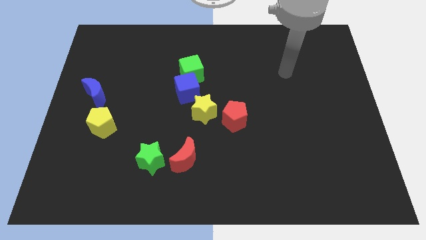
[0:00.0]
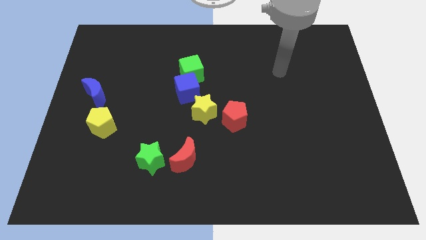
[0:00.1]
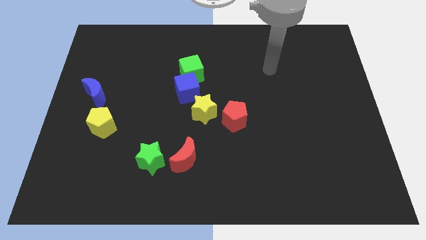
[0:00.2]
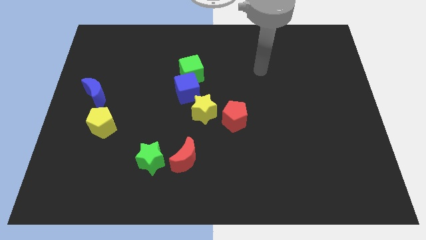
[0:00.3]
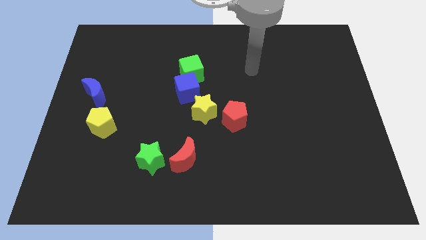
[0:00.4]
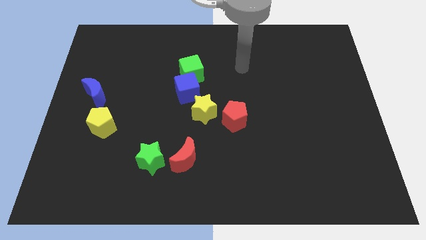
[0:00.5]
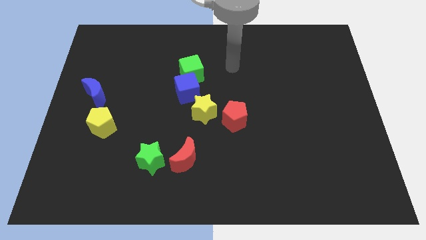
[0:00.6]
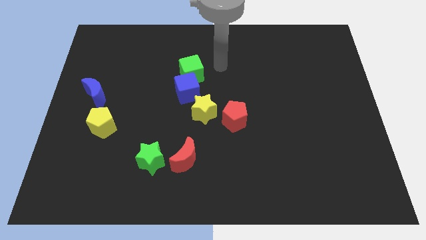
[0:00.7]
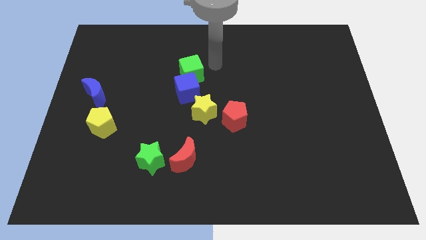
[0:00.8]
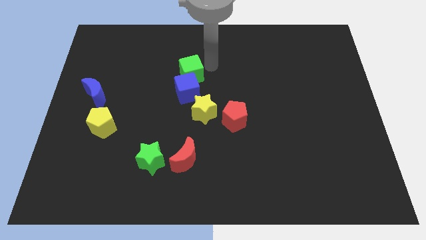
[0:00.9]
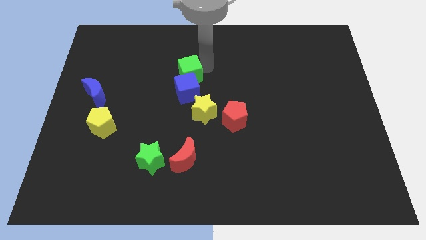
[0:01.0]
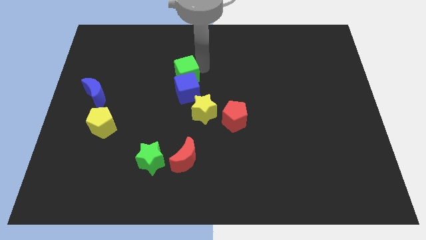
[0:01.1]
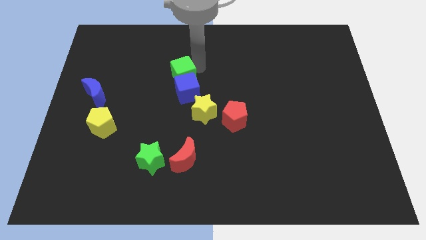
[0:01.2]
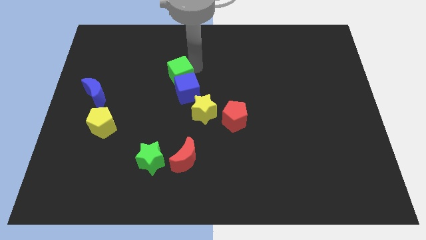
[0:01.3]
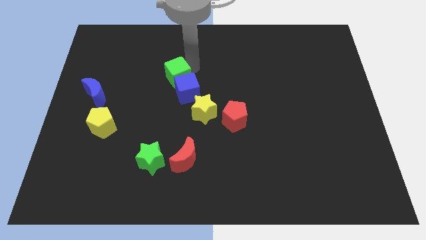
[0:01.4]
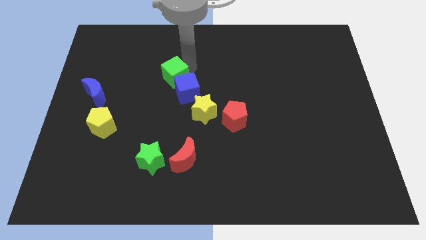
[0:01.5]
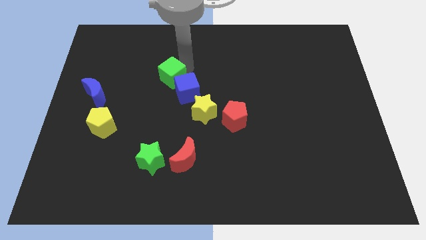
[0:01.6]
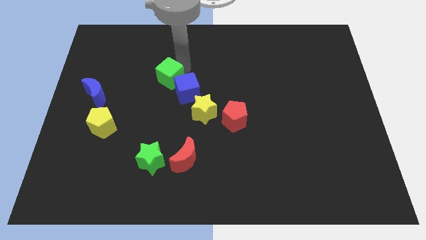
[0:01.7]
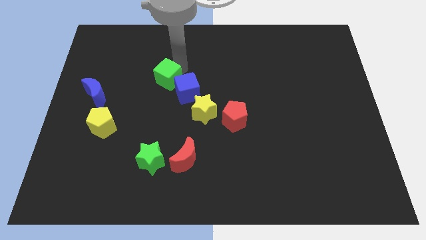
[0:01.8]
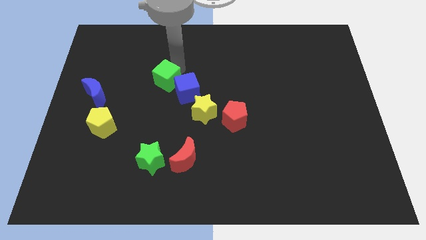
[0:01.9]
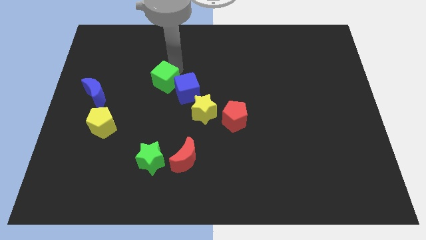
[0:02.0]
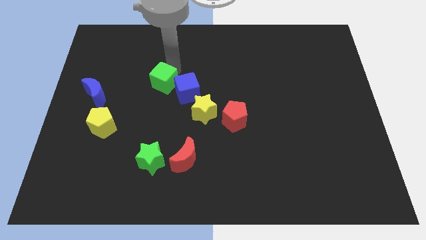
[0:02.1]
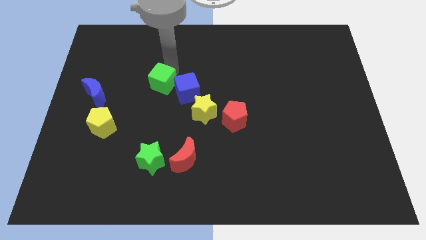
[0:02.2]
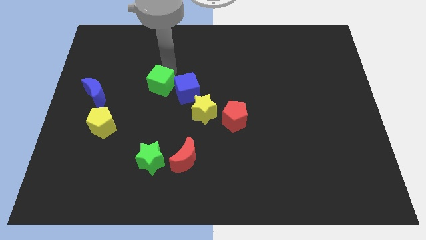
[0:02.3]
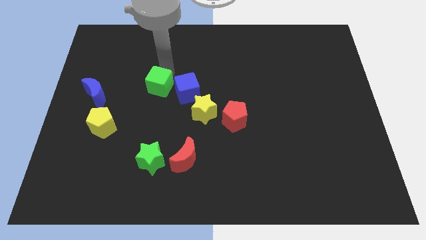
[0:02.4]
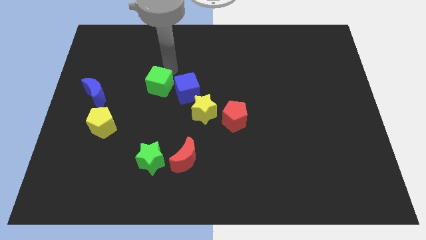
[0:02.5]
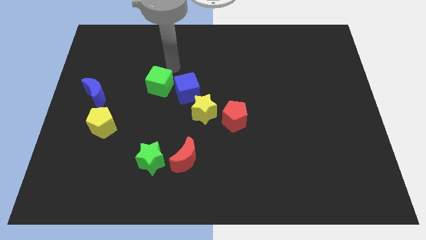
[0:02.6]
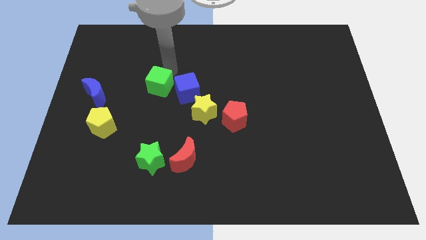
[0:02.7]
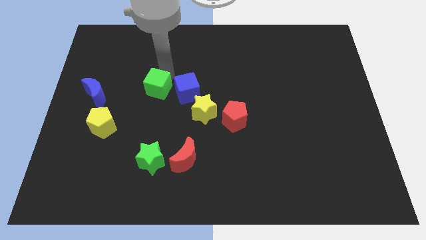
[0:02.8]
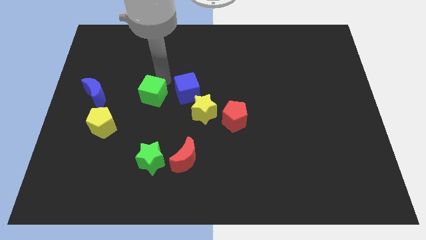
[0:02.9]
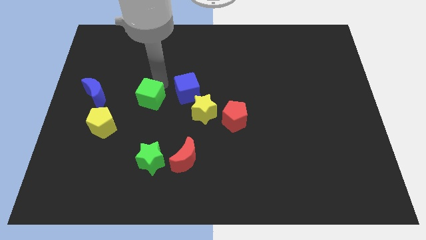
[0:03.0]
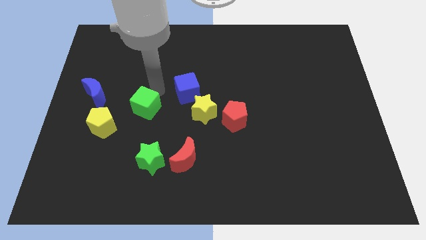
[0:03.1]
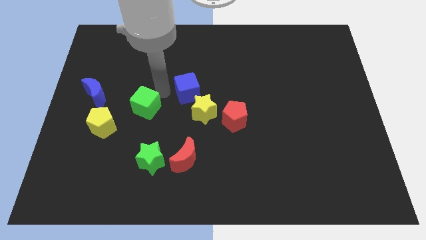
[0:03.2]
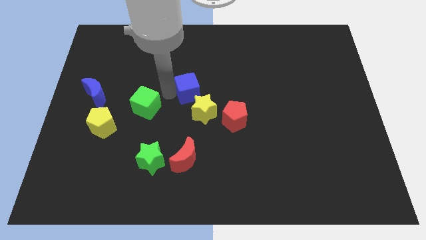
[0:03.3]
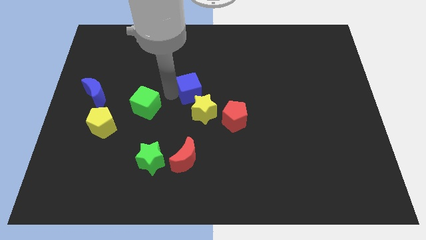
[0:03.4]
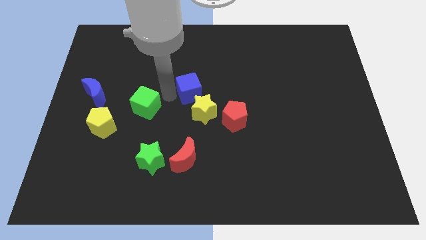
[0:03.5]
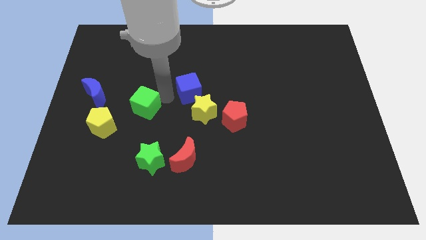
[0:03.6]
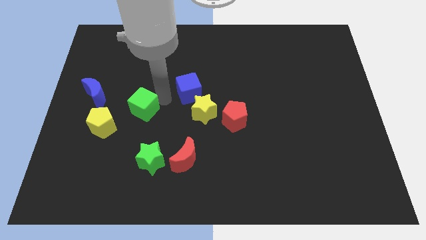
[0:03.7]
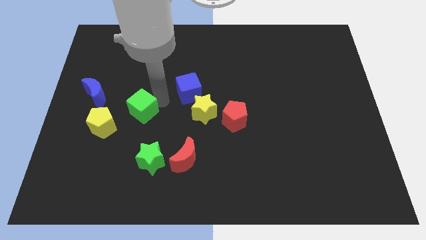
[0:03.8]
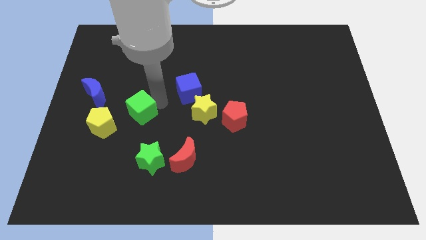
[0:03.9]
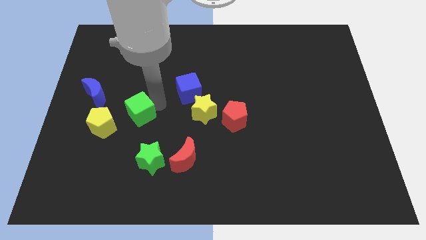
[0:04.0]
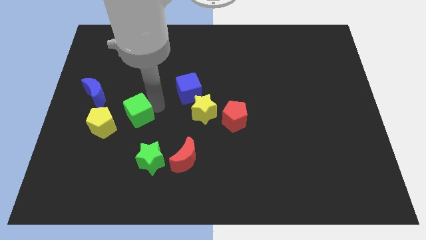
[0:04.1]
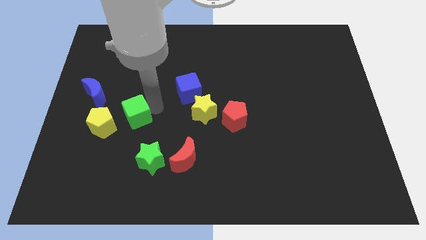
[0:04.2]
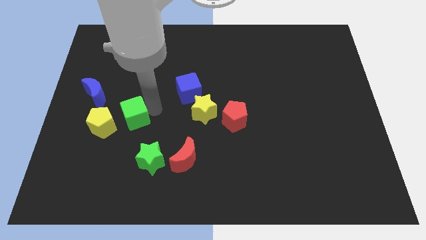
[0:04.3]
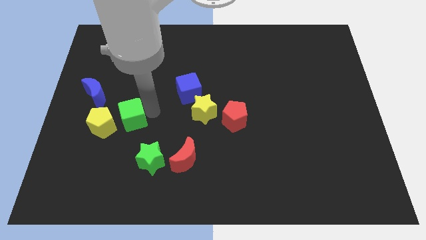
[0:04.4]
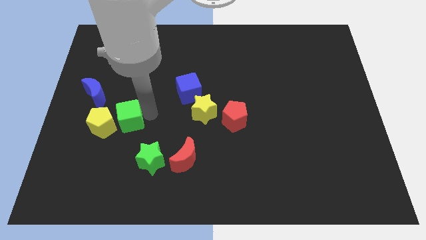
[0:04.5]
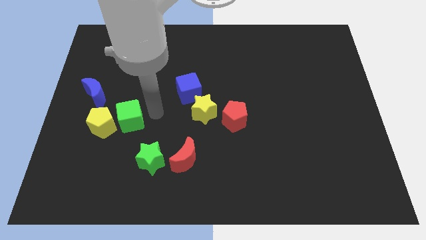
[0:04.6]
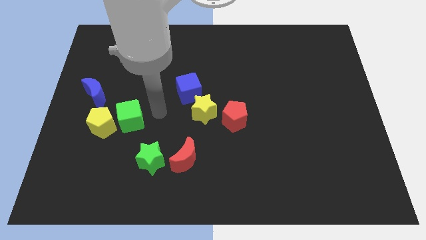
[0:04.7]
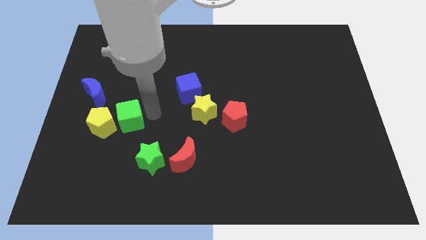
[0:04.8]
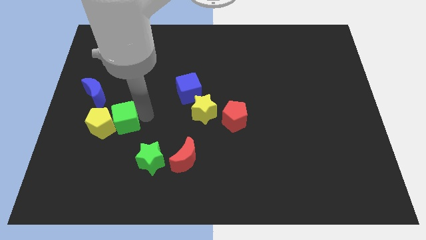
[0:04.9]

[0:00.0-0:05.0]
move the green cube to the yellow pentagon

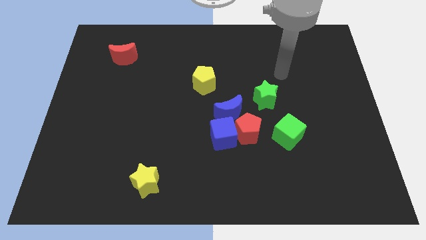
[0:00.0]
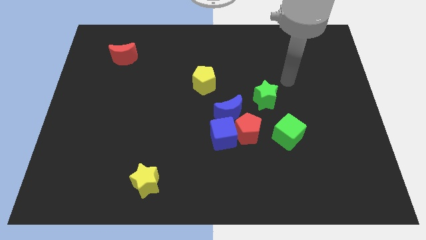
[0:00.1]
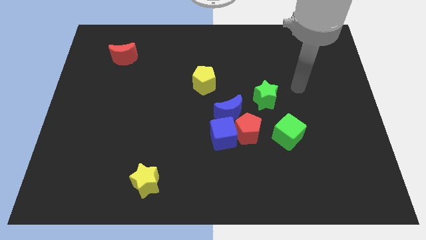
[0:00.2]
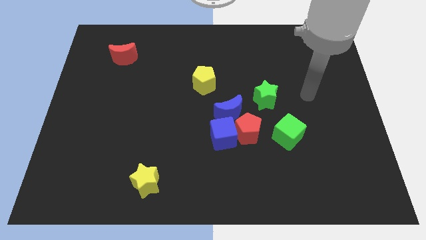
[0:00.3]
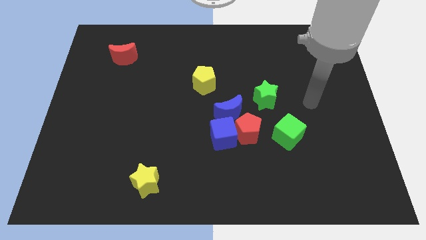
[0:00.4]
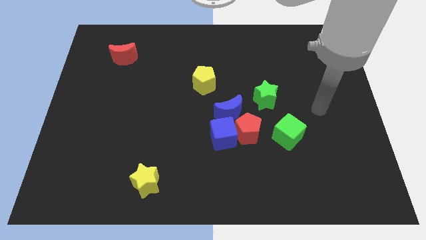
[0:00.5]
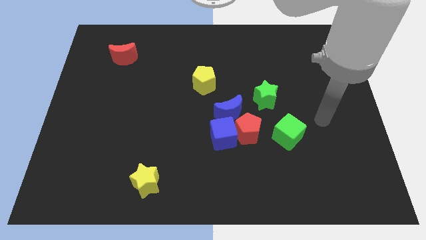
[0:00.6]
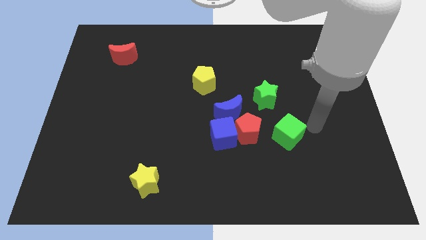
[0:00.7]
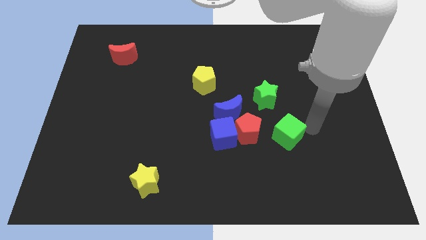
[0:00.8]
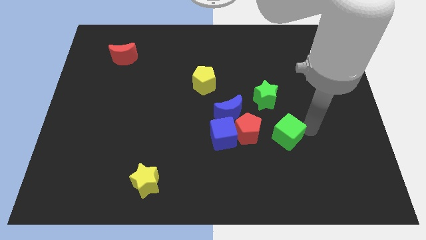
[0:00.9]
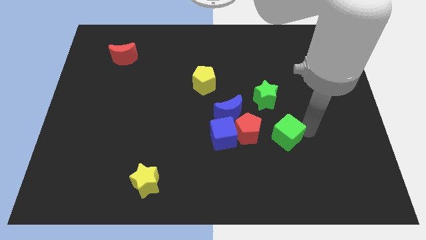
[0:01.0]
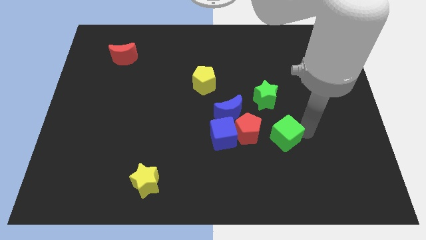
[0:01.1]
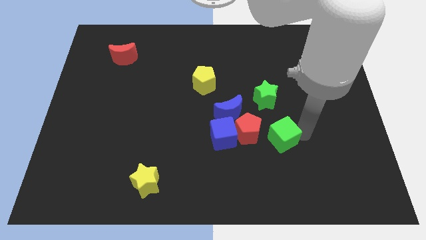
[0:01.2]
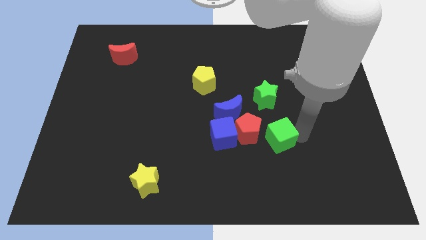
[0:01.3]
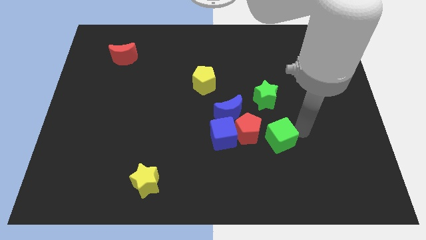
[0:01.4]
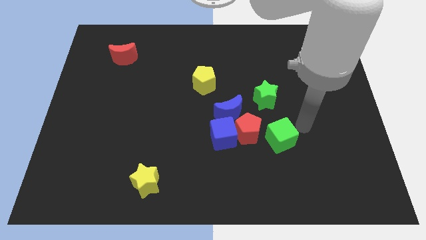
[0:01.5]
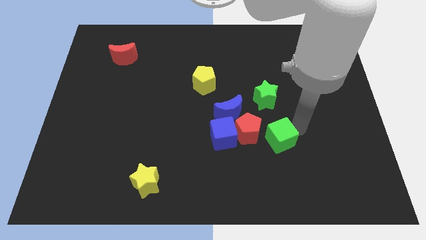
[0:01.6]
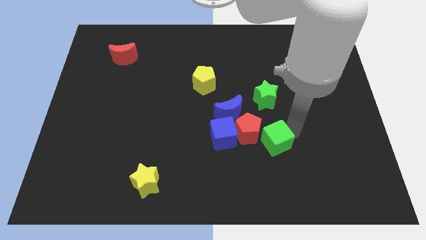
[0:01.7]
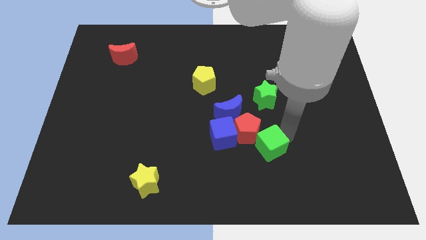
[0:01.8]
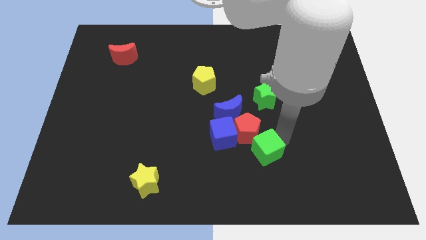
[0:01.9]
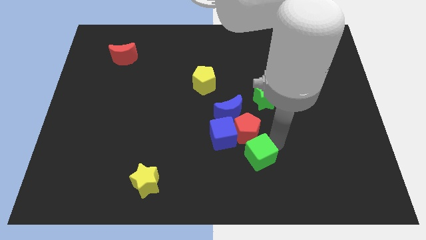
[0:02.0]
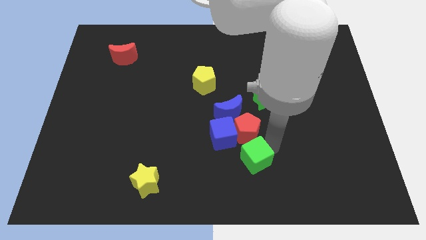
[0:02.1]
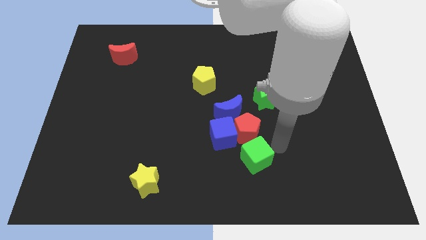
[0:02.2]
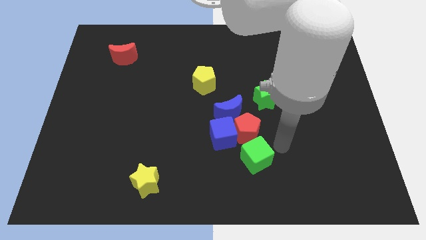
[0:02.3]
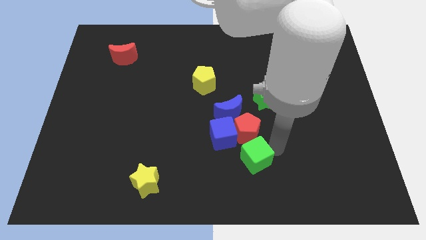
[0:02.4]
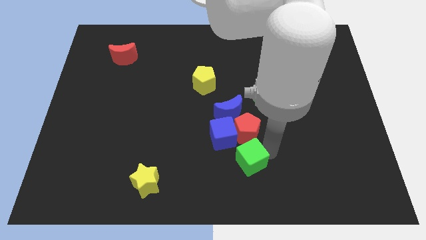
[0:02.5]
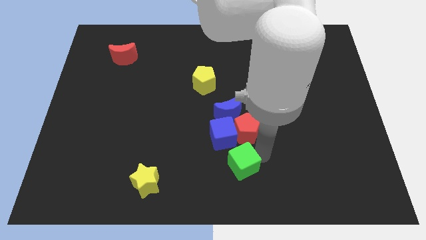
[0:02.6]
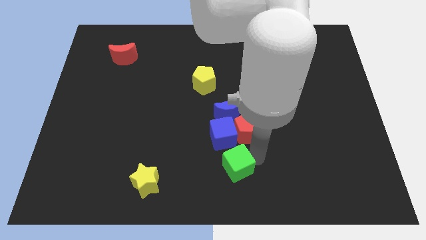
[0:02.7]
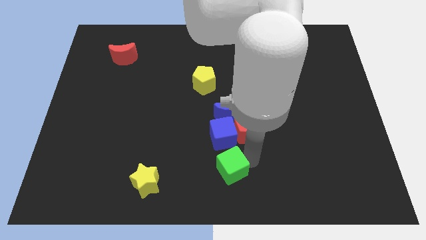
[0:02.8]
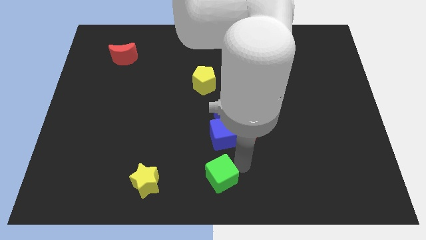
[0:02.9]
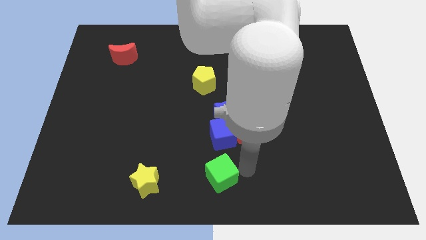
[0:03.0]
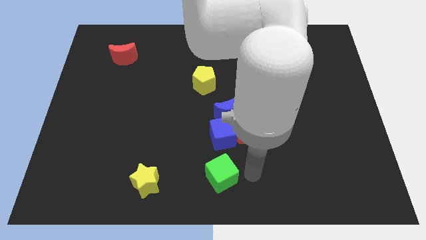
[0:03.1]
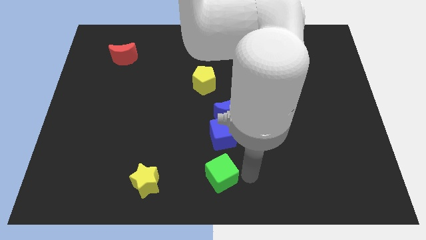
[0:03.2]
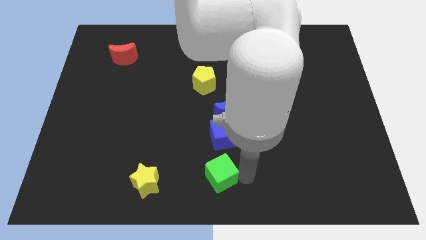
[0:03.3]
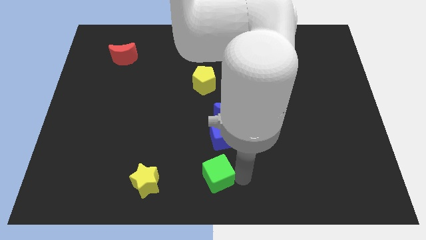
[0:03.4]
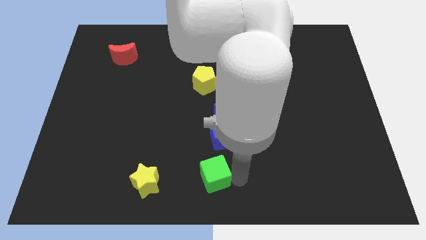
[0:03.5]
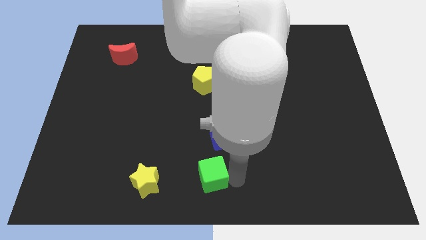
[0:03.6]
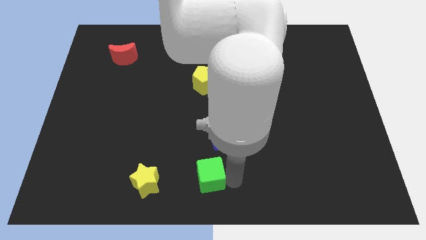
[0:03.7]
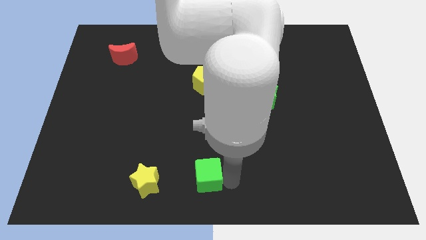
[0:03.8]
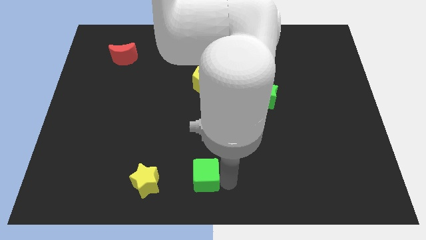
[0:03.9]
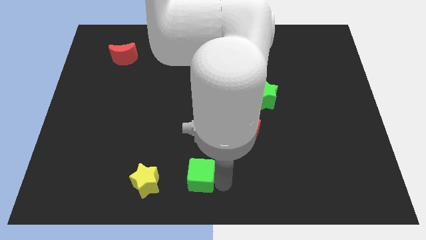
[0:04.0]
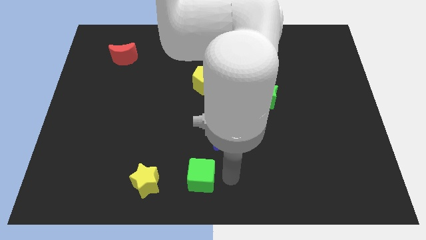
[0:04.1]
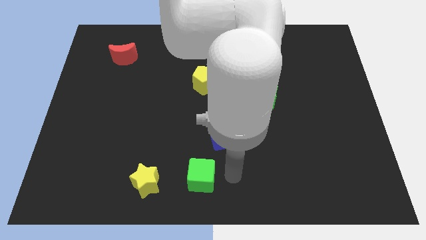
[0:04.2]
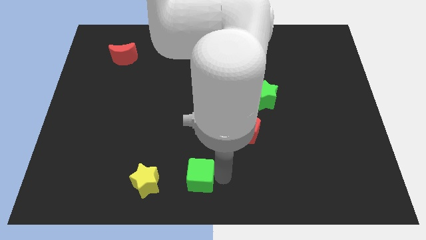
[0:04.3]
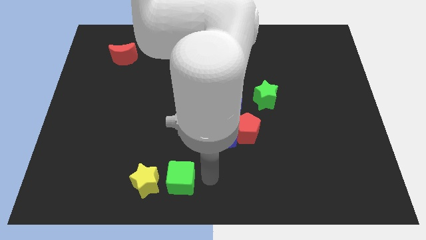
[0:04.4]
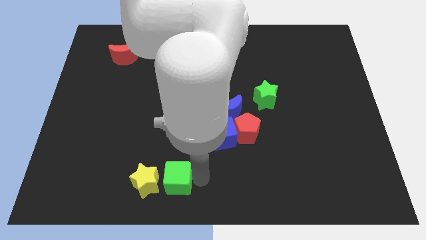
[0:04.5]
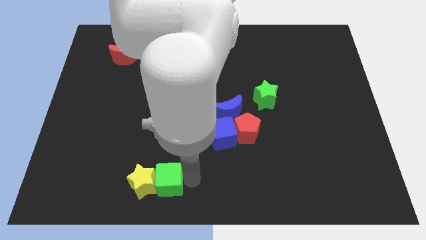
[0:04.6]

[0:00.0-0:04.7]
put the green cube to the yellow star
